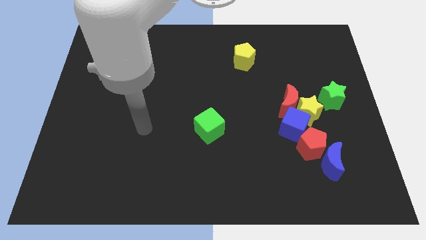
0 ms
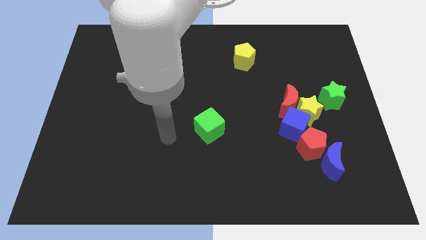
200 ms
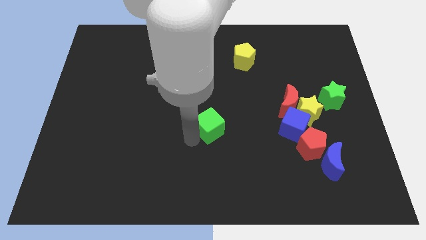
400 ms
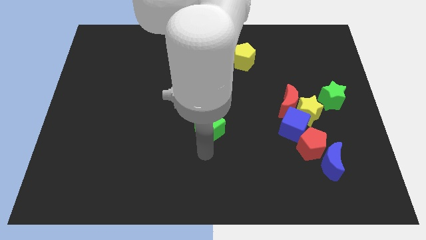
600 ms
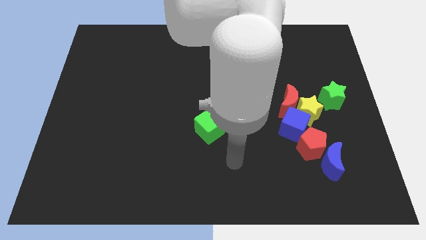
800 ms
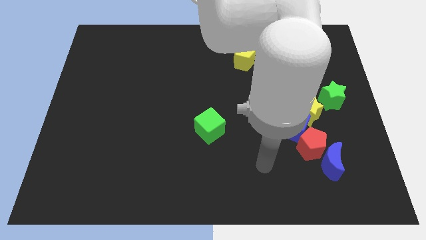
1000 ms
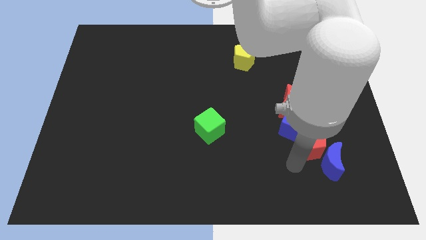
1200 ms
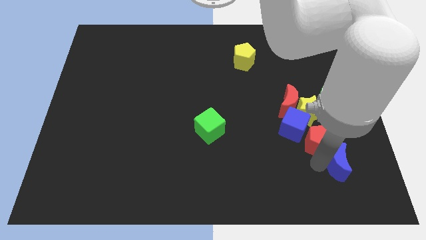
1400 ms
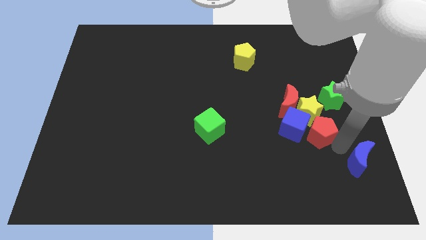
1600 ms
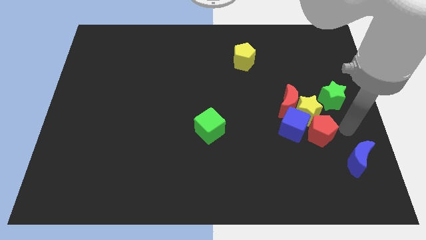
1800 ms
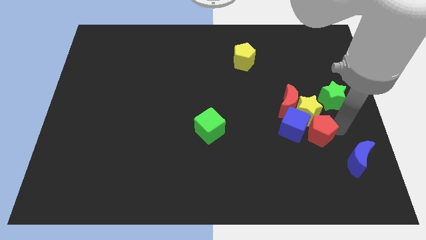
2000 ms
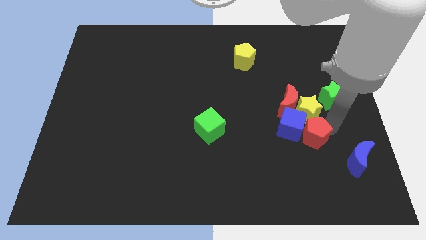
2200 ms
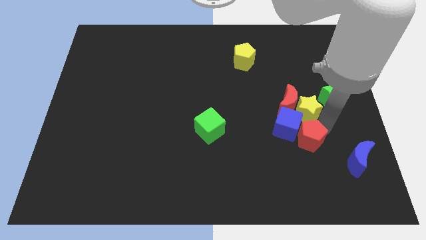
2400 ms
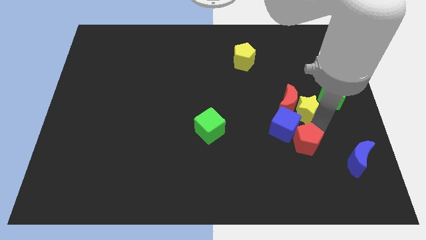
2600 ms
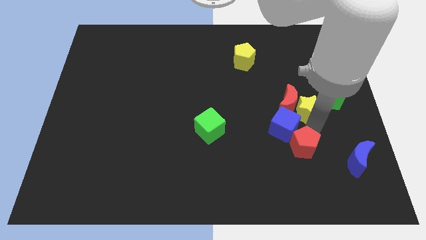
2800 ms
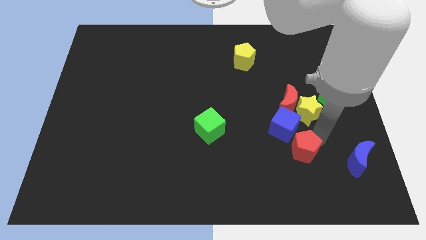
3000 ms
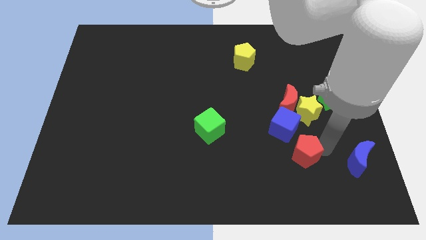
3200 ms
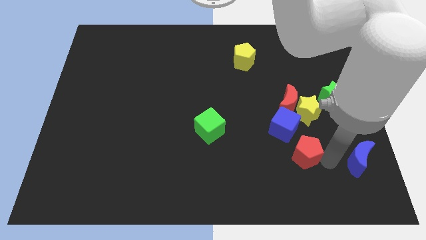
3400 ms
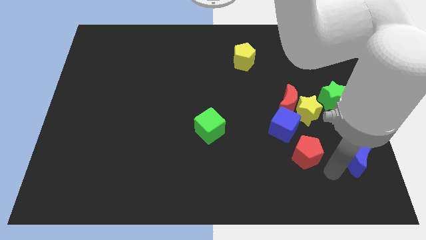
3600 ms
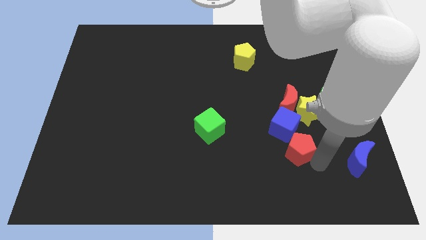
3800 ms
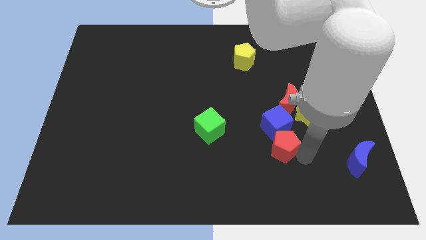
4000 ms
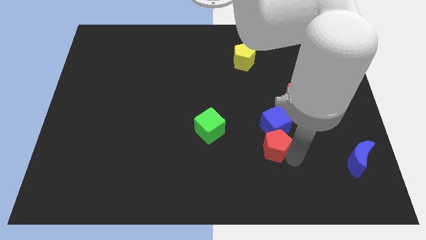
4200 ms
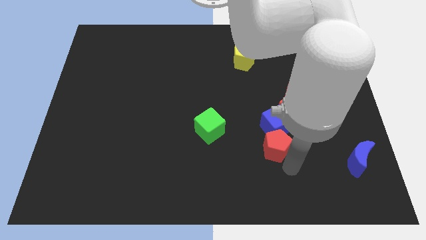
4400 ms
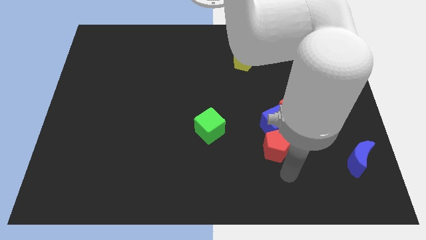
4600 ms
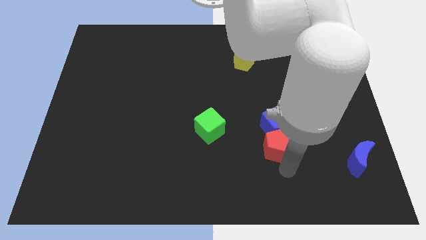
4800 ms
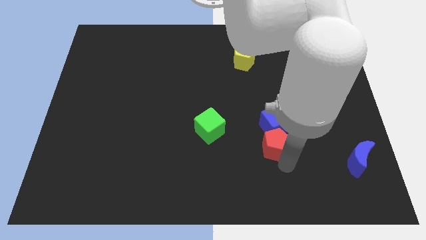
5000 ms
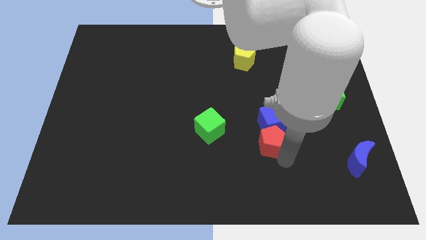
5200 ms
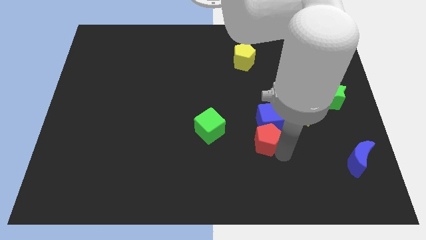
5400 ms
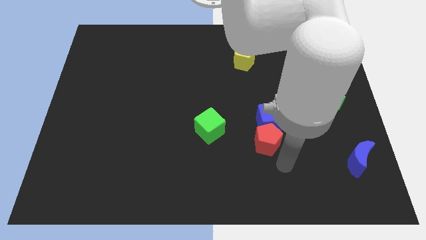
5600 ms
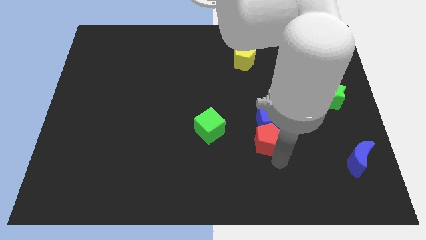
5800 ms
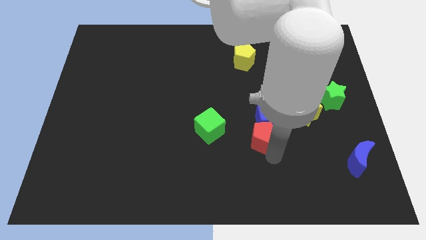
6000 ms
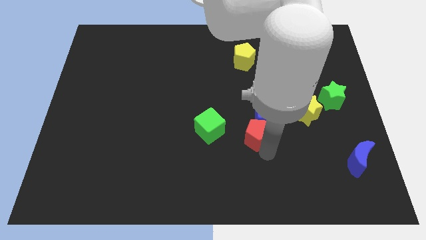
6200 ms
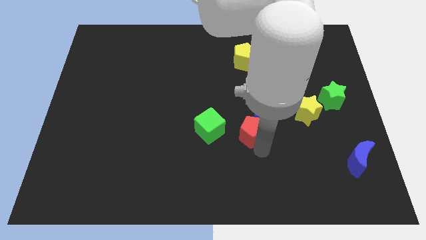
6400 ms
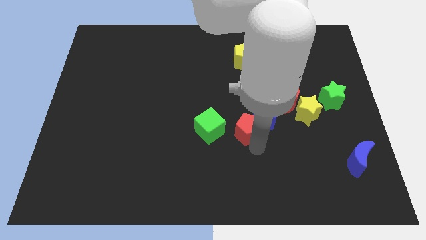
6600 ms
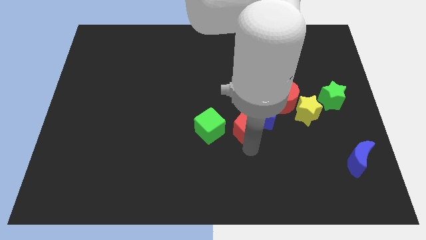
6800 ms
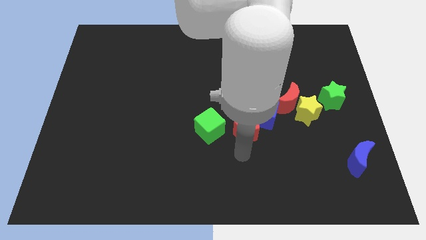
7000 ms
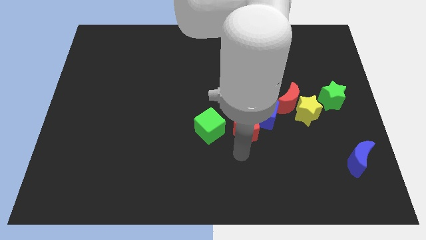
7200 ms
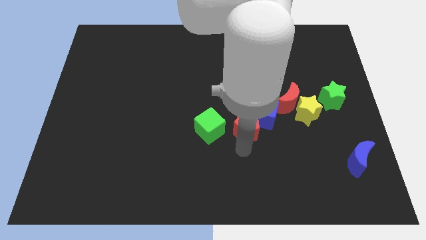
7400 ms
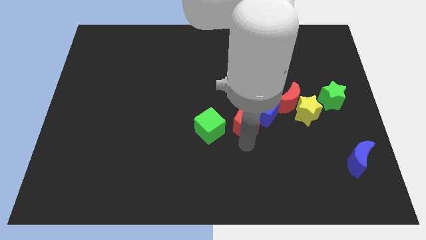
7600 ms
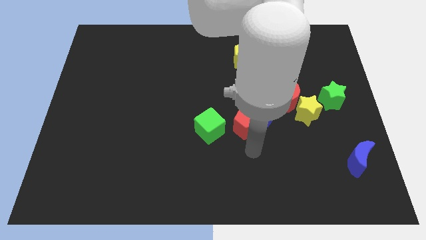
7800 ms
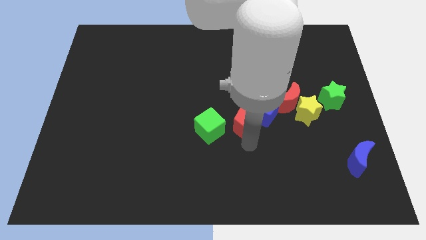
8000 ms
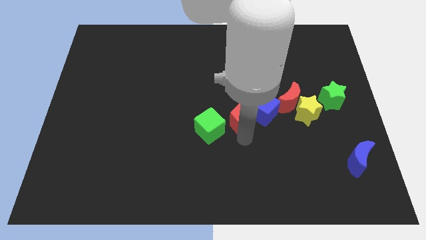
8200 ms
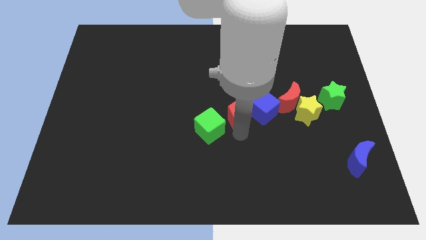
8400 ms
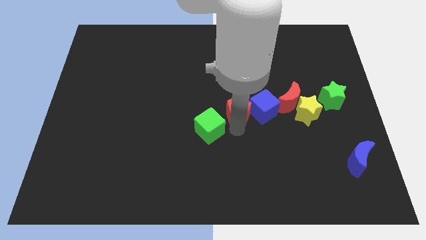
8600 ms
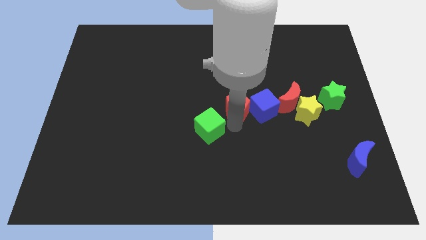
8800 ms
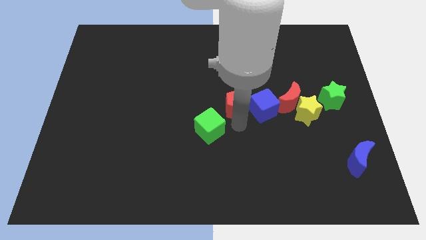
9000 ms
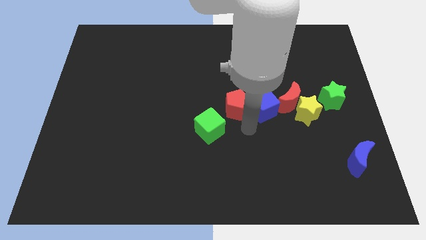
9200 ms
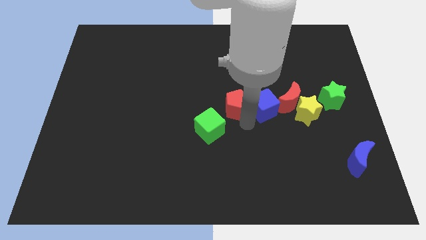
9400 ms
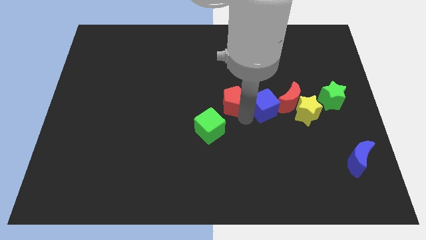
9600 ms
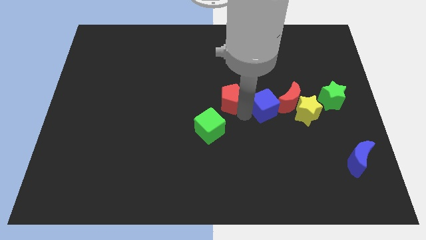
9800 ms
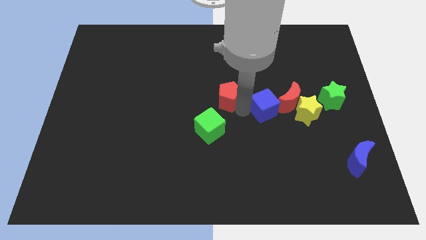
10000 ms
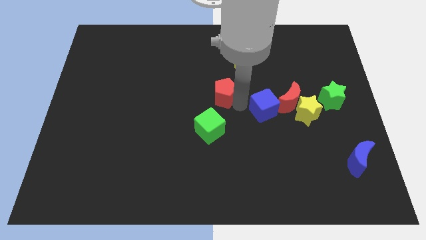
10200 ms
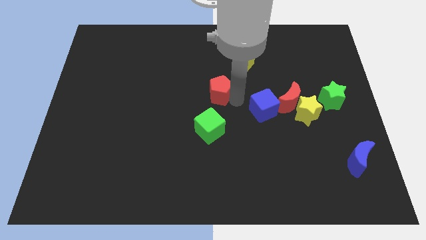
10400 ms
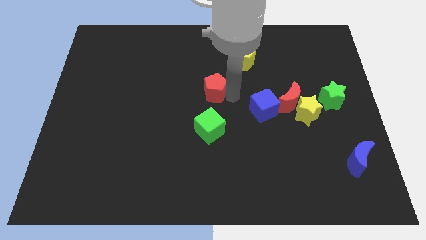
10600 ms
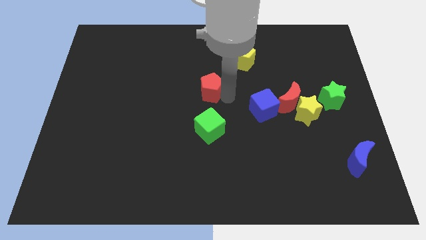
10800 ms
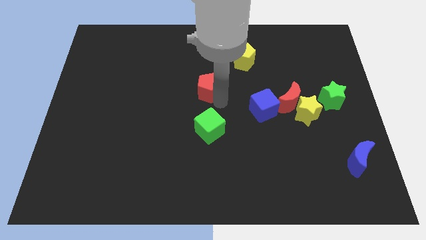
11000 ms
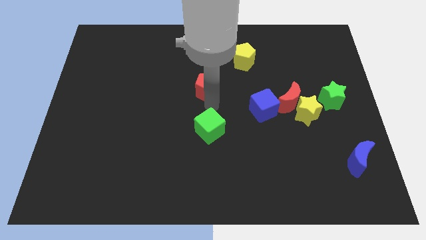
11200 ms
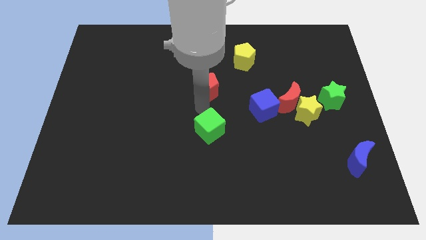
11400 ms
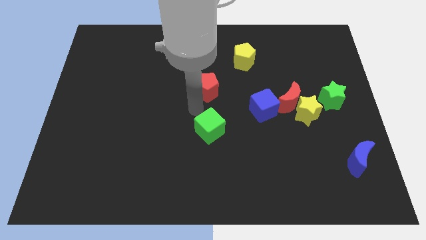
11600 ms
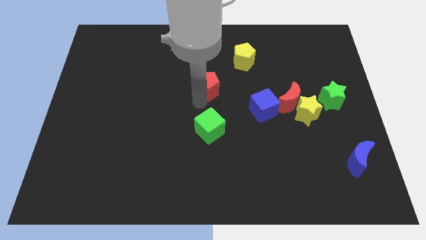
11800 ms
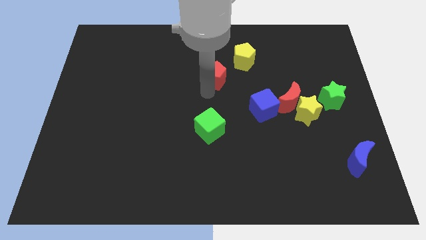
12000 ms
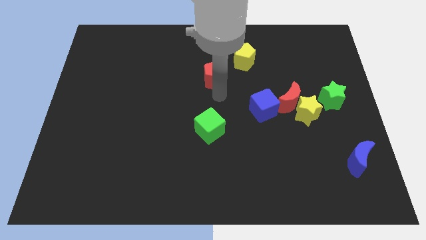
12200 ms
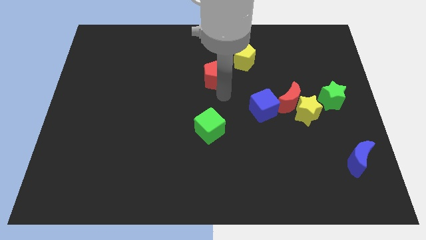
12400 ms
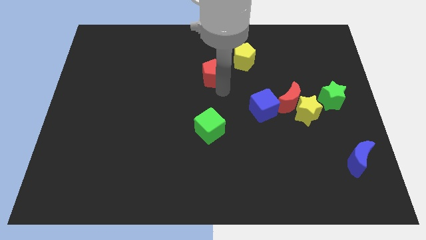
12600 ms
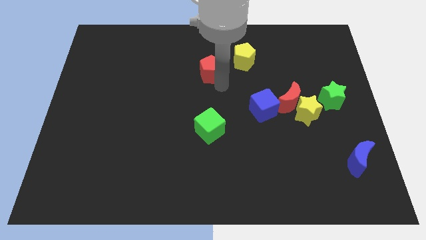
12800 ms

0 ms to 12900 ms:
push the red pentagon to the left of the yellow pentagon

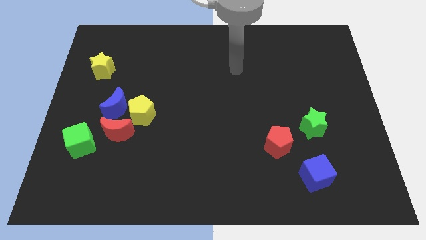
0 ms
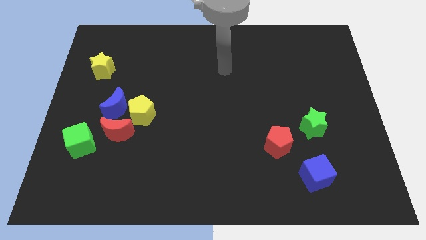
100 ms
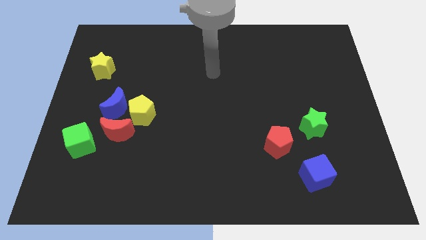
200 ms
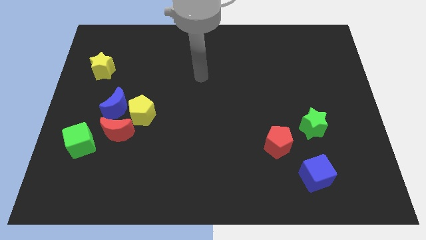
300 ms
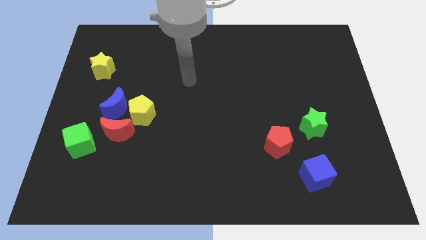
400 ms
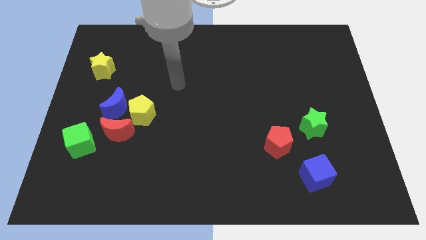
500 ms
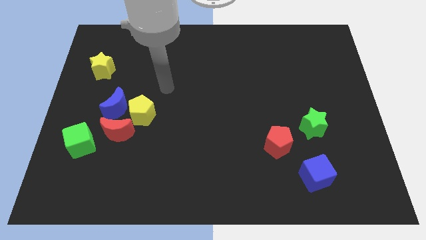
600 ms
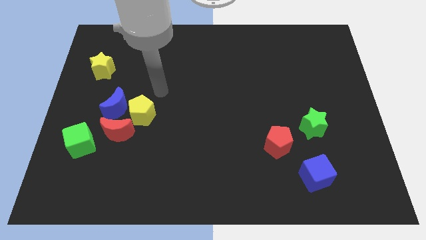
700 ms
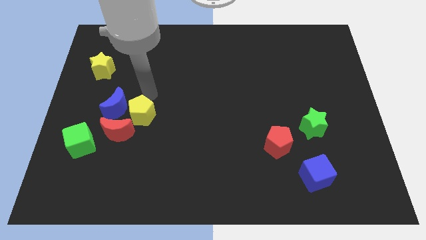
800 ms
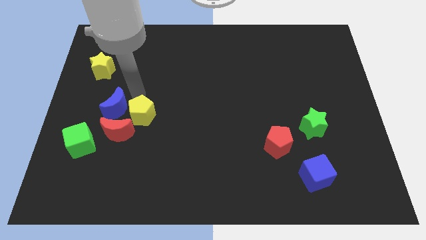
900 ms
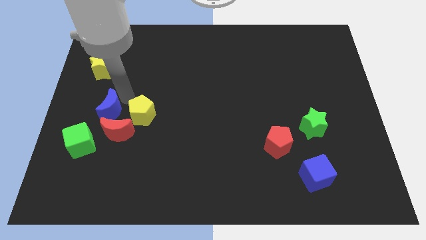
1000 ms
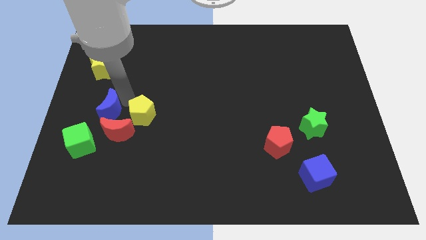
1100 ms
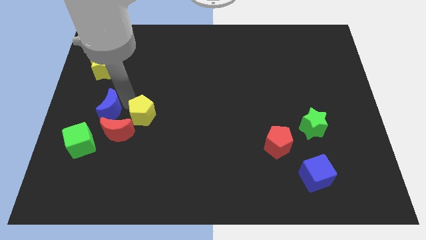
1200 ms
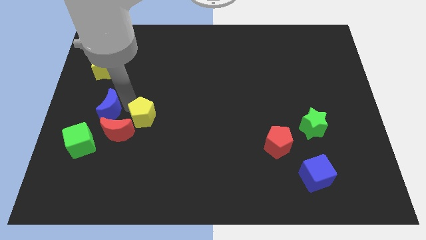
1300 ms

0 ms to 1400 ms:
slide the yellow pentagon to the right side of the red moon

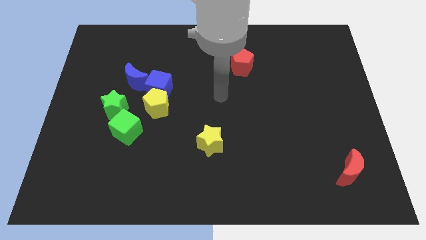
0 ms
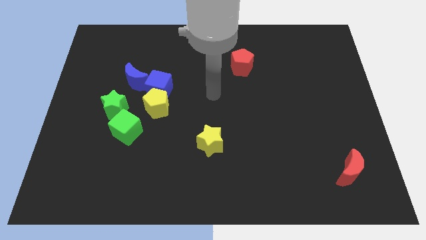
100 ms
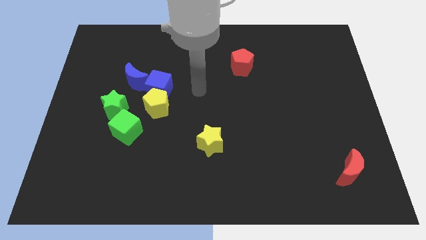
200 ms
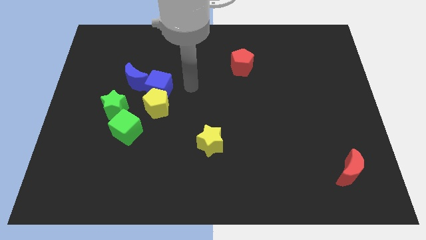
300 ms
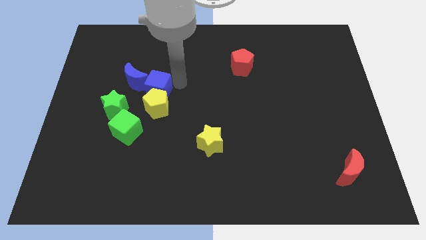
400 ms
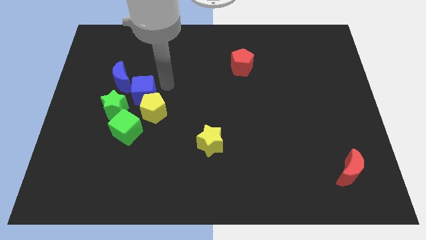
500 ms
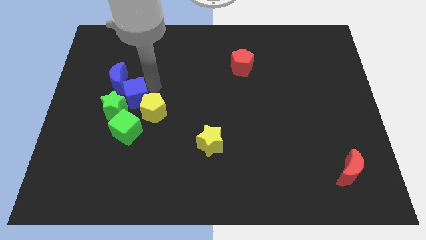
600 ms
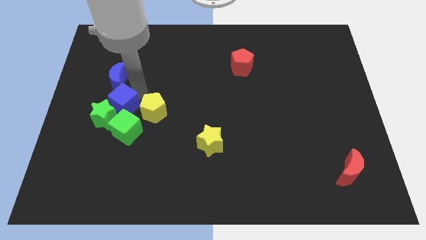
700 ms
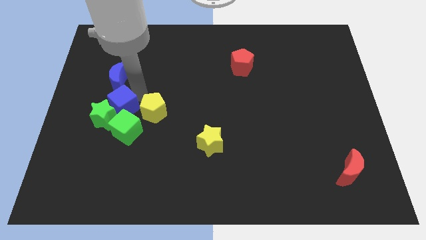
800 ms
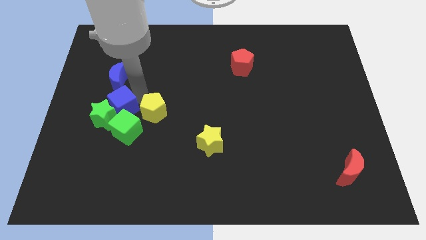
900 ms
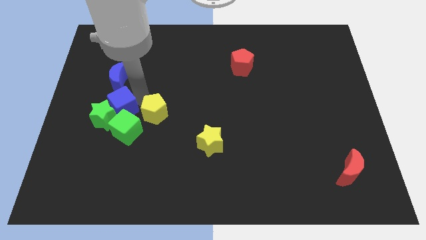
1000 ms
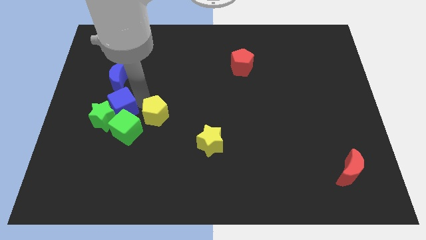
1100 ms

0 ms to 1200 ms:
move the yellow pentagon just right of the green cube
